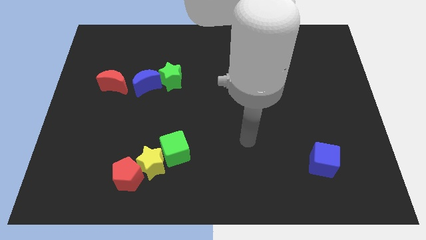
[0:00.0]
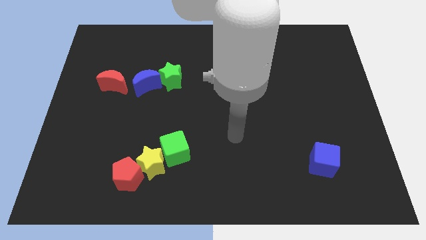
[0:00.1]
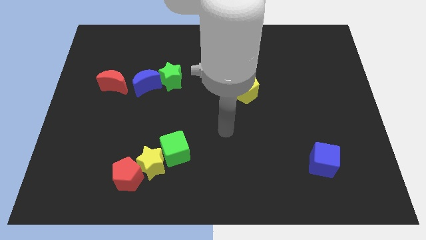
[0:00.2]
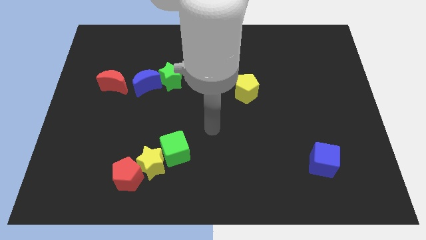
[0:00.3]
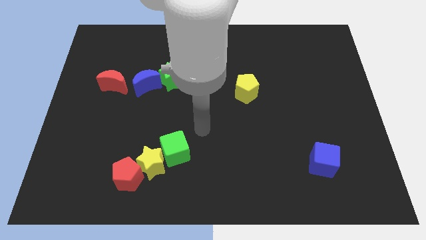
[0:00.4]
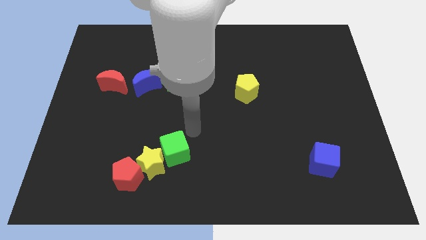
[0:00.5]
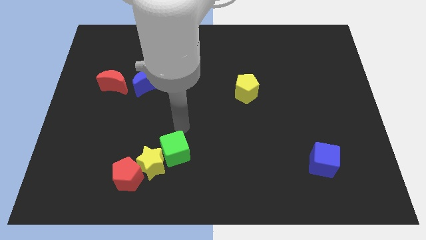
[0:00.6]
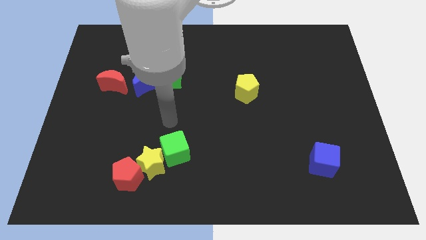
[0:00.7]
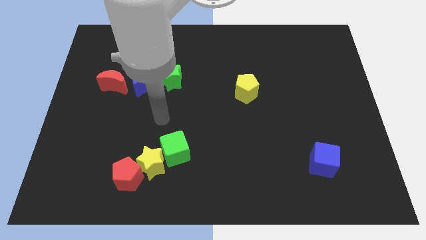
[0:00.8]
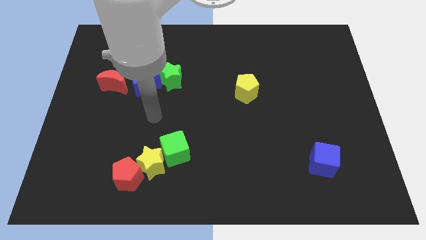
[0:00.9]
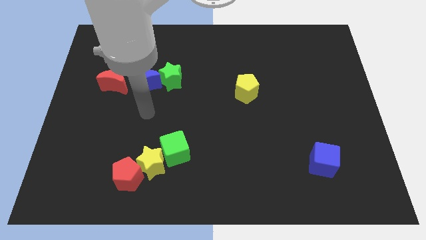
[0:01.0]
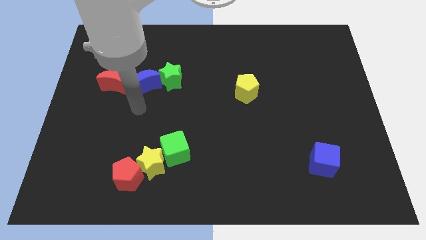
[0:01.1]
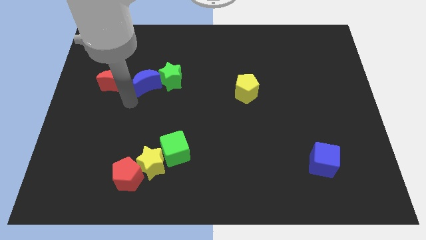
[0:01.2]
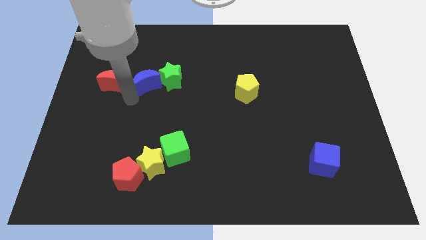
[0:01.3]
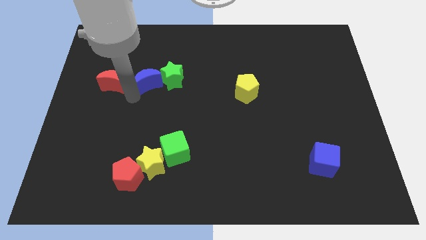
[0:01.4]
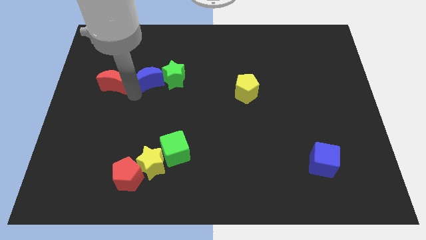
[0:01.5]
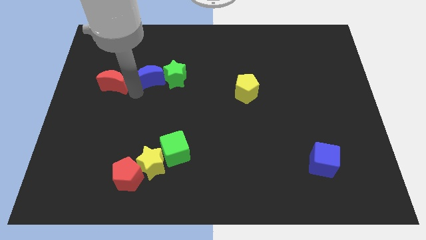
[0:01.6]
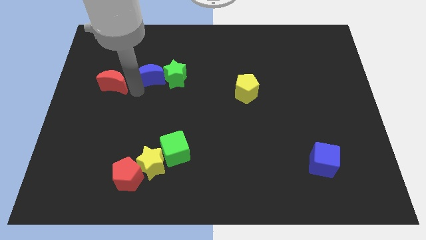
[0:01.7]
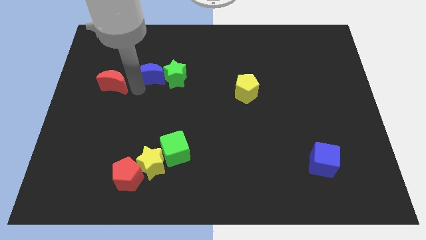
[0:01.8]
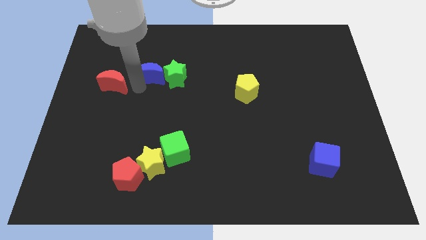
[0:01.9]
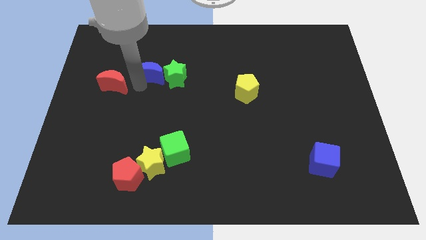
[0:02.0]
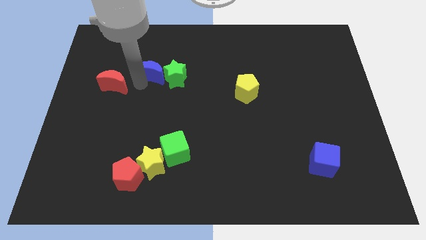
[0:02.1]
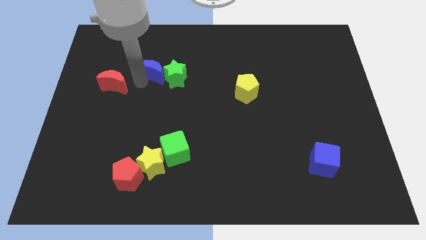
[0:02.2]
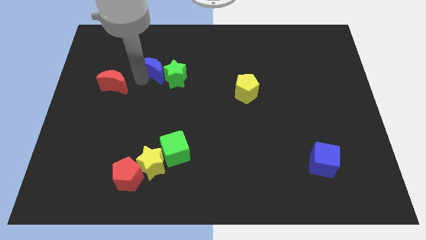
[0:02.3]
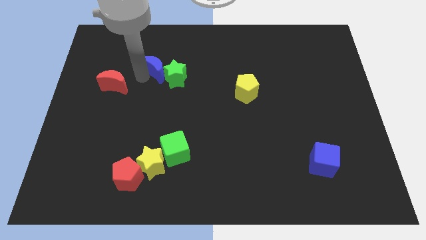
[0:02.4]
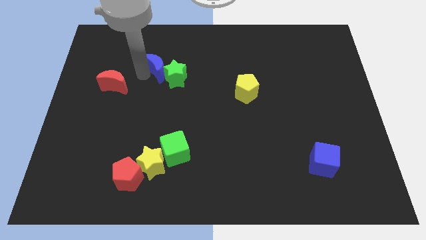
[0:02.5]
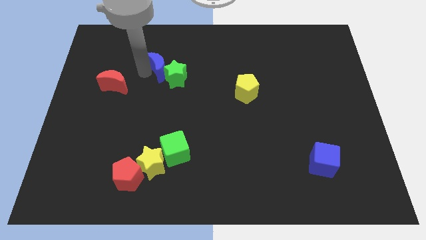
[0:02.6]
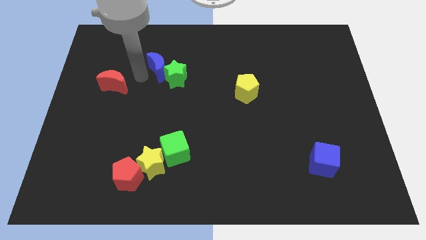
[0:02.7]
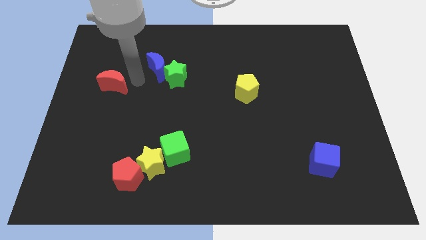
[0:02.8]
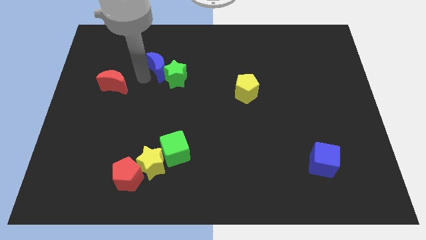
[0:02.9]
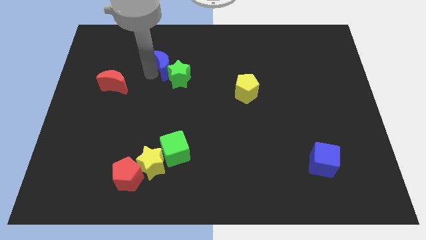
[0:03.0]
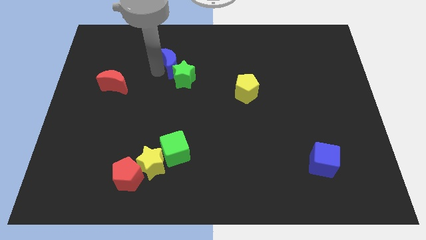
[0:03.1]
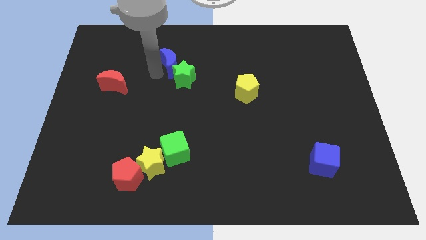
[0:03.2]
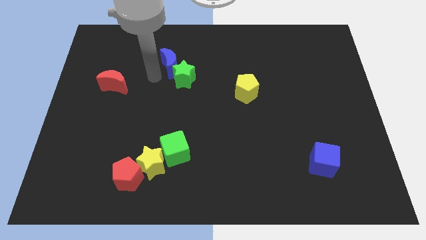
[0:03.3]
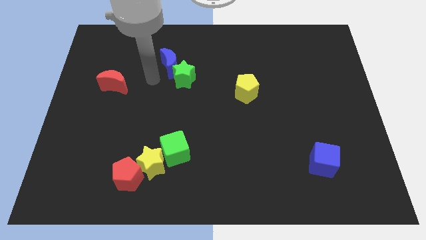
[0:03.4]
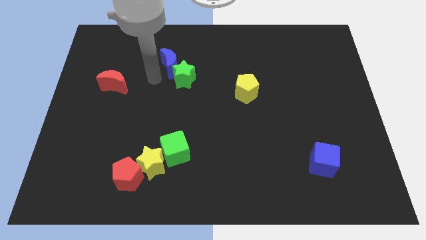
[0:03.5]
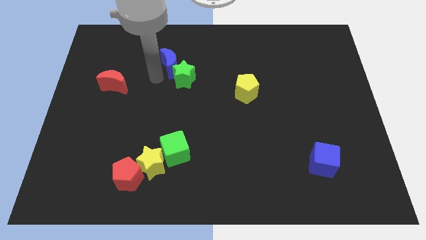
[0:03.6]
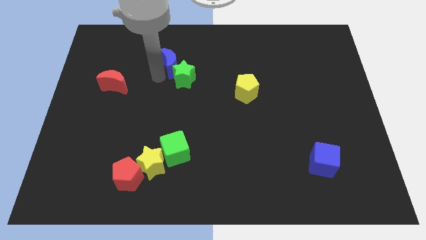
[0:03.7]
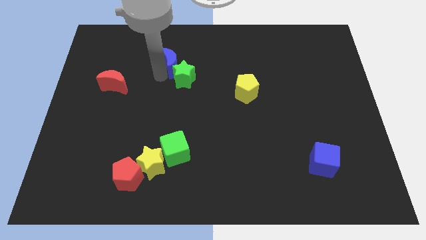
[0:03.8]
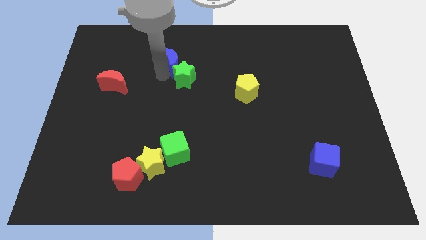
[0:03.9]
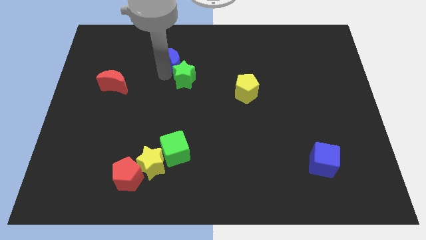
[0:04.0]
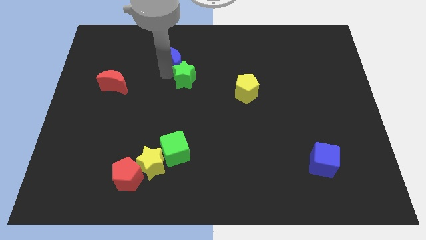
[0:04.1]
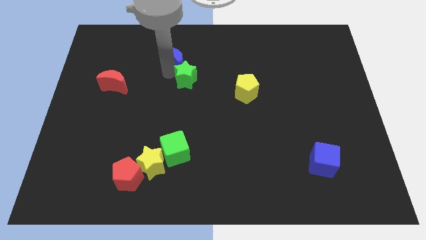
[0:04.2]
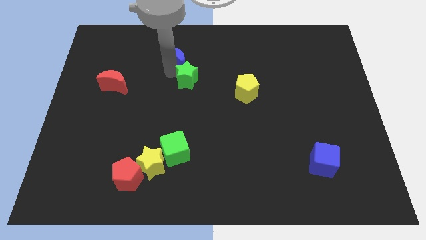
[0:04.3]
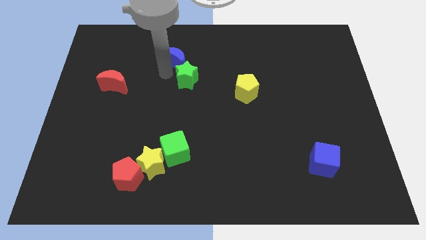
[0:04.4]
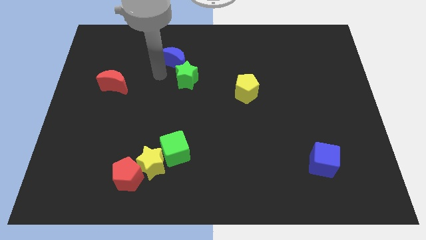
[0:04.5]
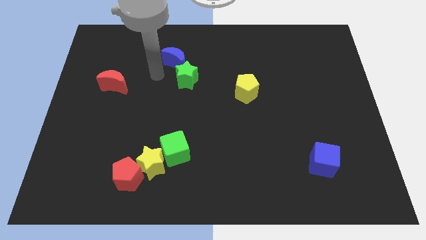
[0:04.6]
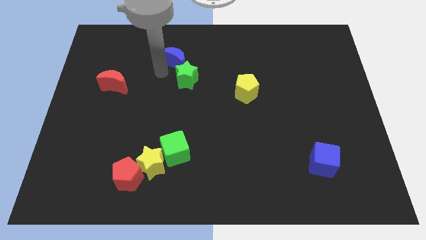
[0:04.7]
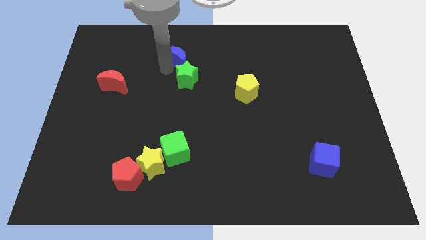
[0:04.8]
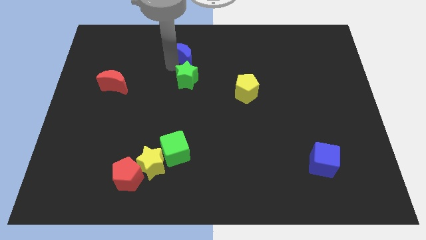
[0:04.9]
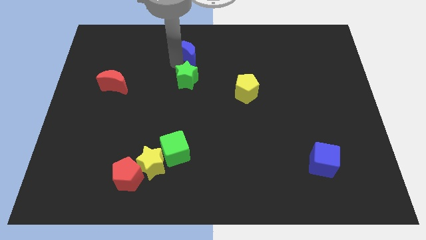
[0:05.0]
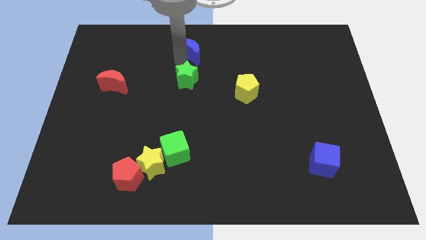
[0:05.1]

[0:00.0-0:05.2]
move the blue moon to the top

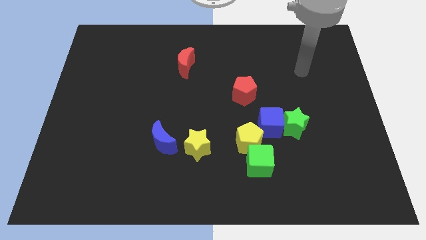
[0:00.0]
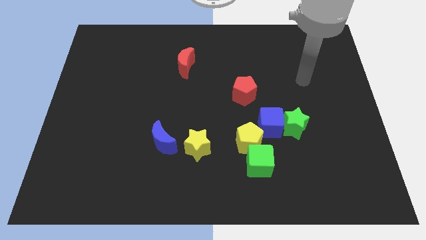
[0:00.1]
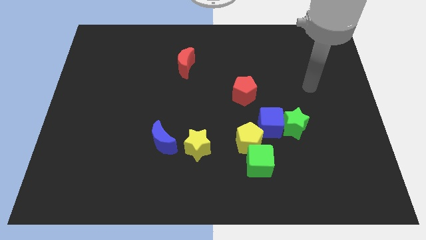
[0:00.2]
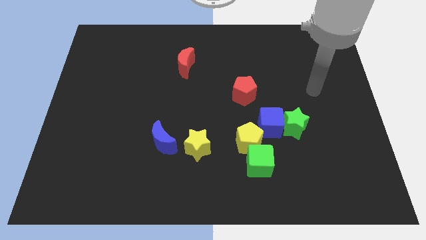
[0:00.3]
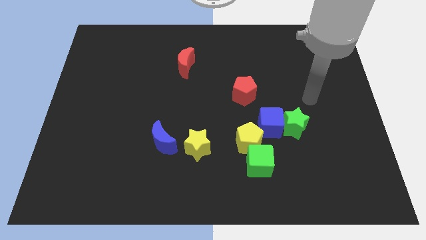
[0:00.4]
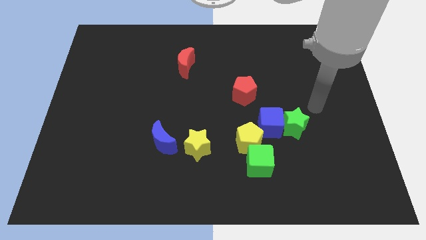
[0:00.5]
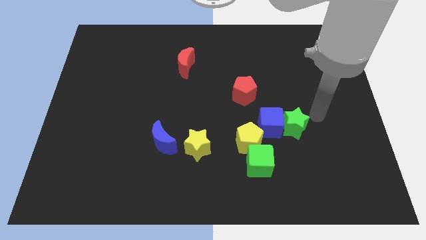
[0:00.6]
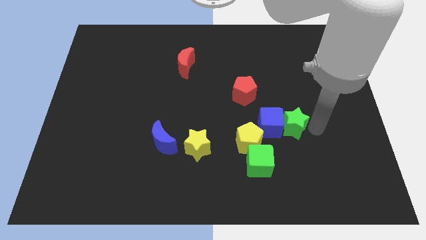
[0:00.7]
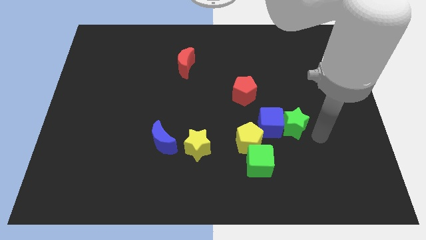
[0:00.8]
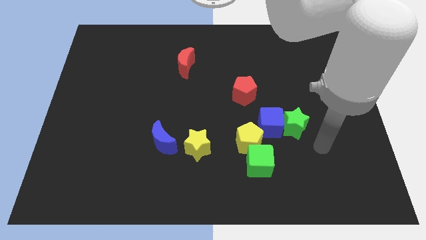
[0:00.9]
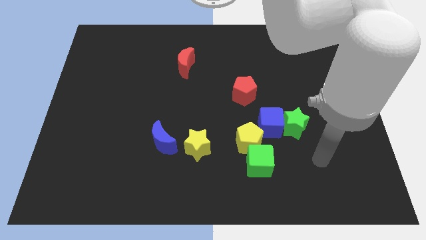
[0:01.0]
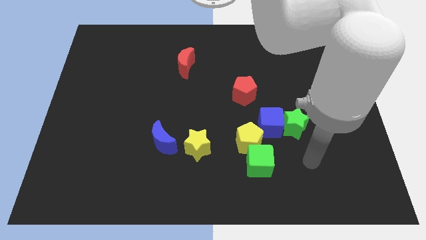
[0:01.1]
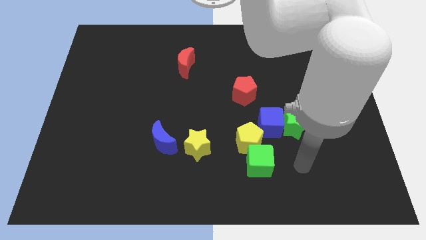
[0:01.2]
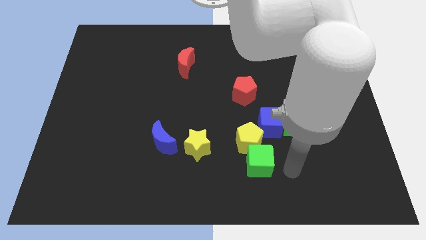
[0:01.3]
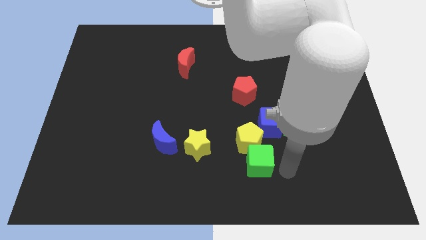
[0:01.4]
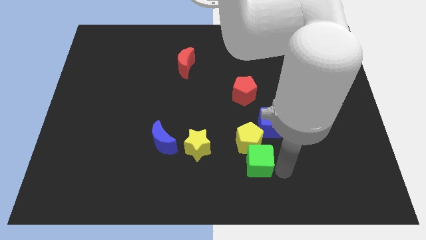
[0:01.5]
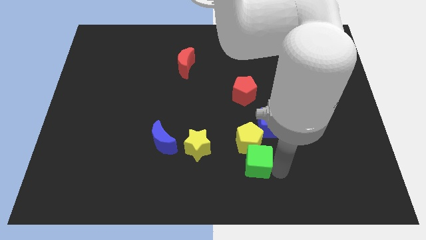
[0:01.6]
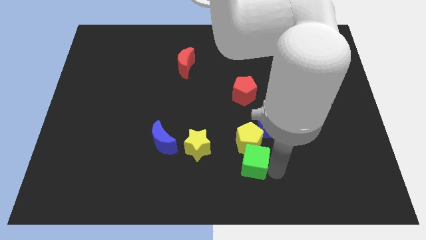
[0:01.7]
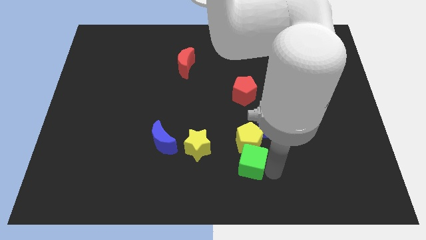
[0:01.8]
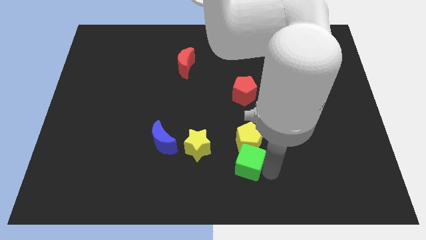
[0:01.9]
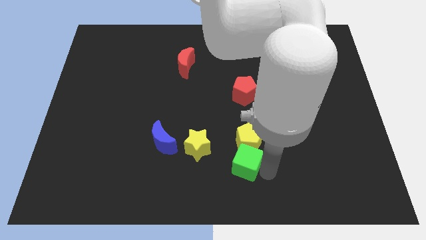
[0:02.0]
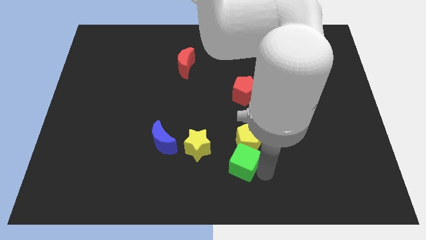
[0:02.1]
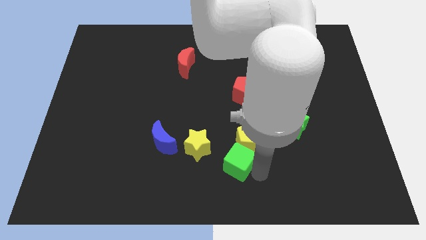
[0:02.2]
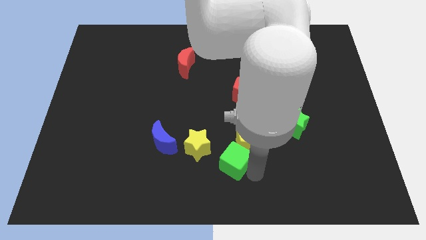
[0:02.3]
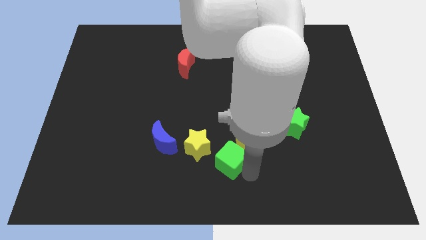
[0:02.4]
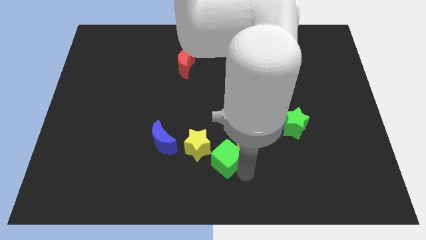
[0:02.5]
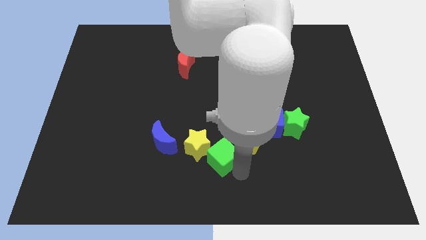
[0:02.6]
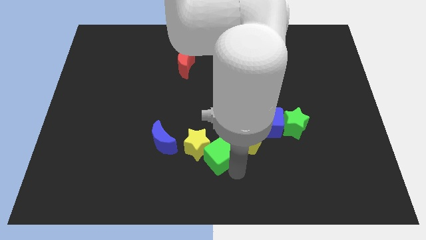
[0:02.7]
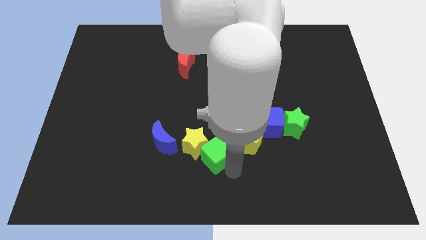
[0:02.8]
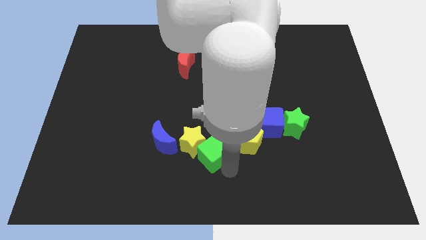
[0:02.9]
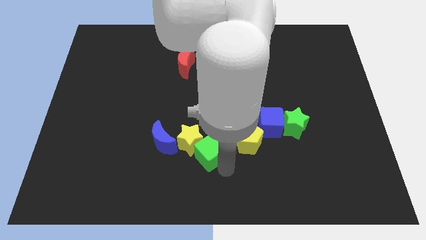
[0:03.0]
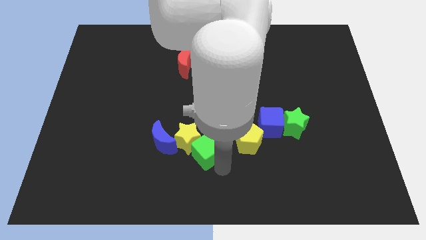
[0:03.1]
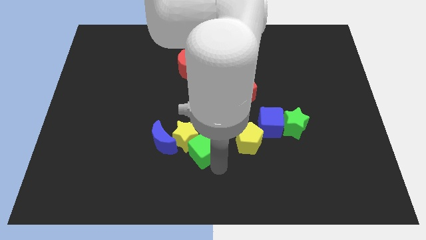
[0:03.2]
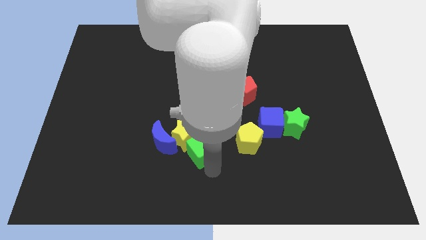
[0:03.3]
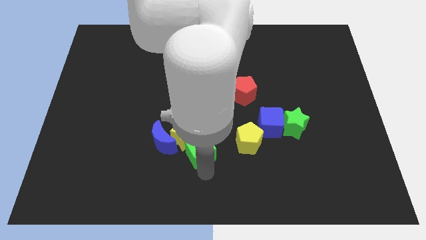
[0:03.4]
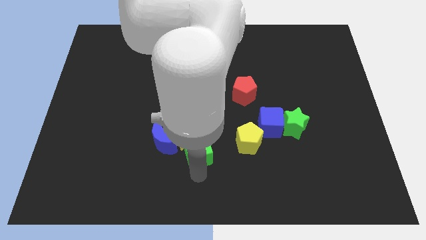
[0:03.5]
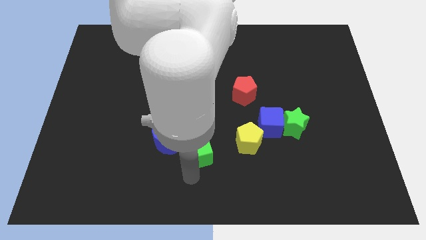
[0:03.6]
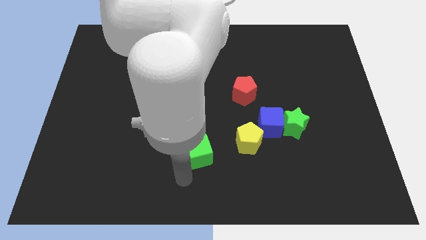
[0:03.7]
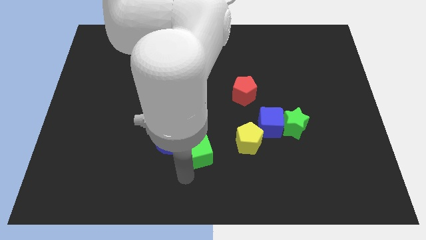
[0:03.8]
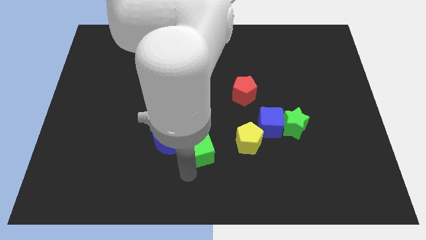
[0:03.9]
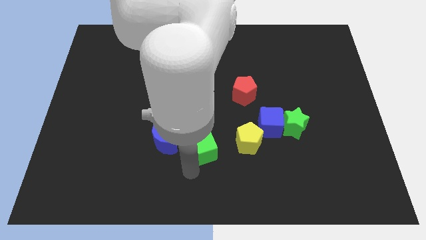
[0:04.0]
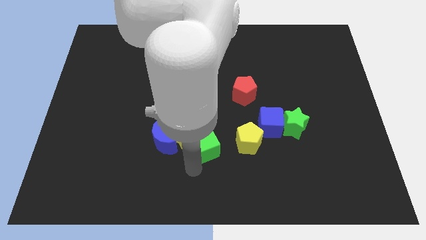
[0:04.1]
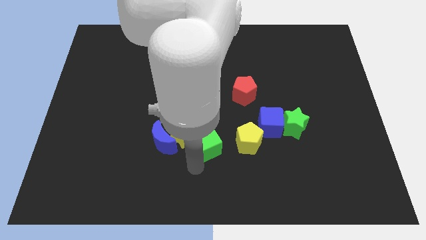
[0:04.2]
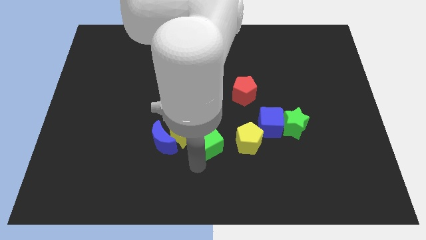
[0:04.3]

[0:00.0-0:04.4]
push the green cube to the center of the board
